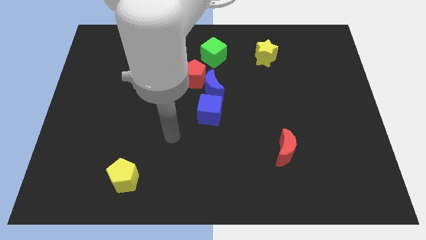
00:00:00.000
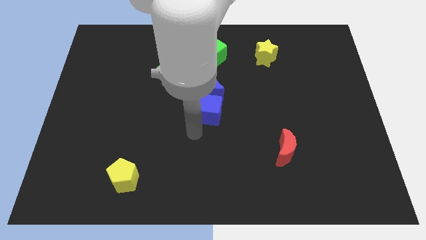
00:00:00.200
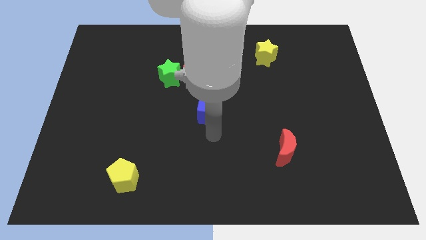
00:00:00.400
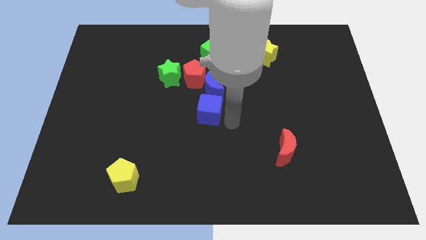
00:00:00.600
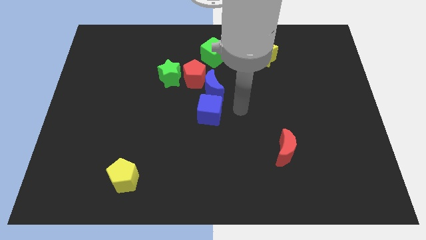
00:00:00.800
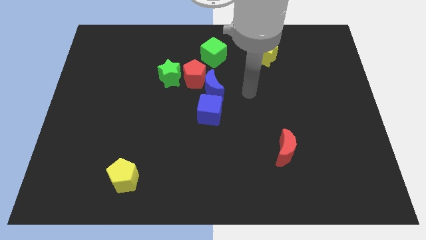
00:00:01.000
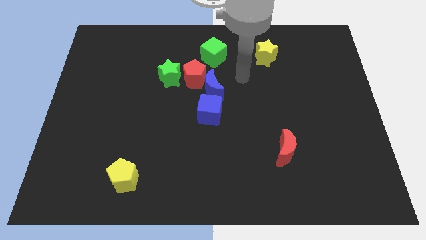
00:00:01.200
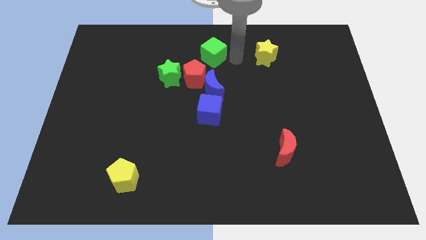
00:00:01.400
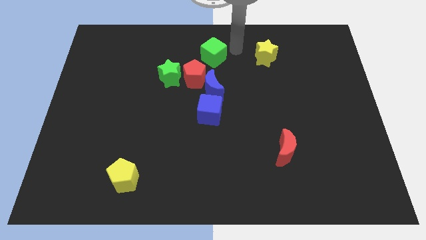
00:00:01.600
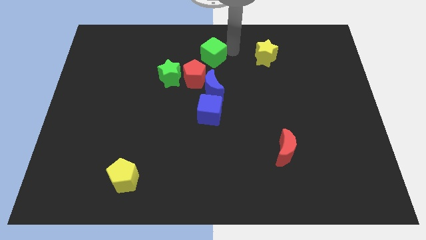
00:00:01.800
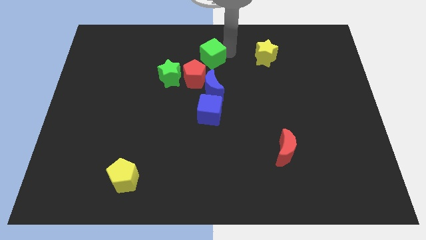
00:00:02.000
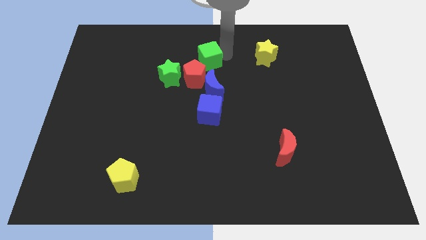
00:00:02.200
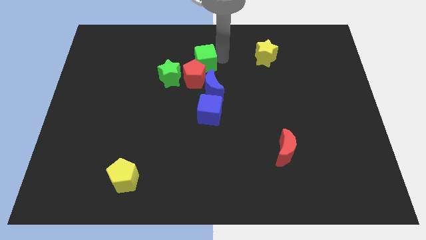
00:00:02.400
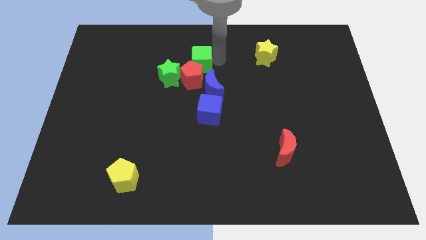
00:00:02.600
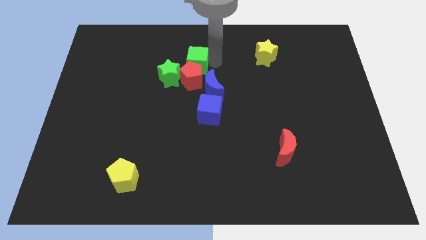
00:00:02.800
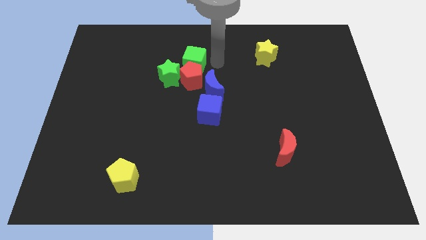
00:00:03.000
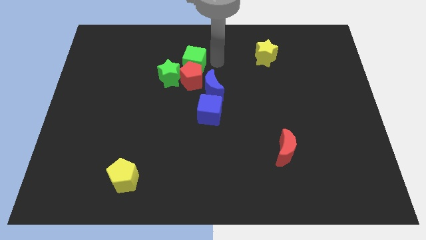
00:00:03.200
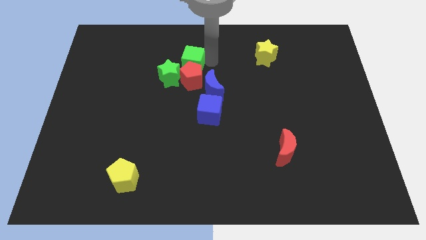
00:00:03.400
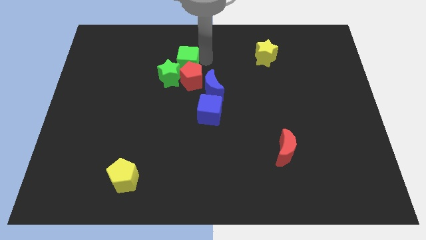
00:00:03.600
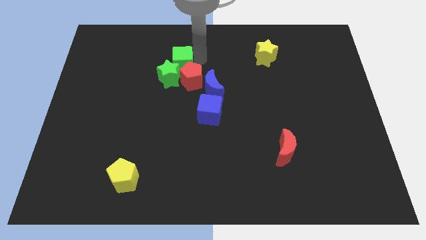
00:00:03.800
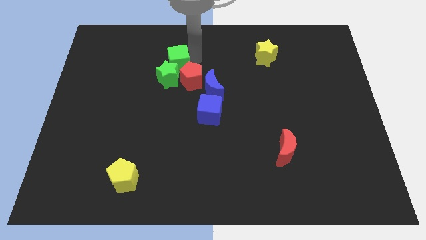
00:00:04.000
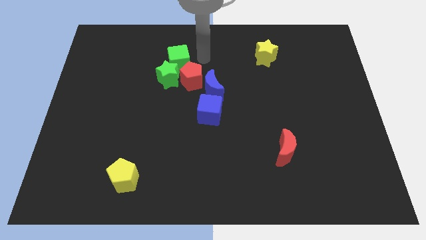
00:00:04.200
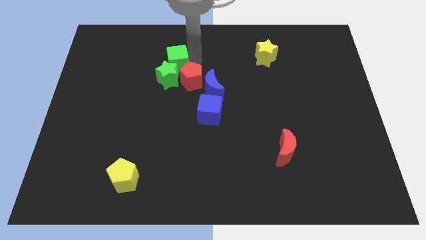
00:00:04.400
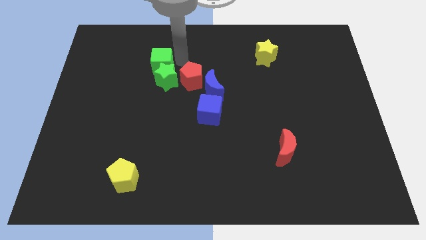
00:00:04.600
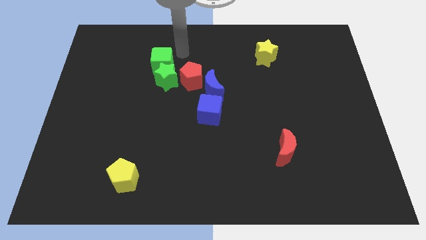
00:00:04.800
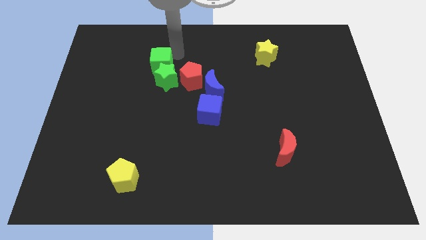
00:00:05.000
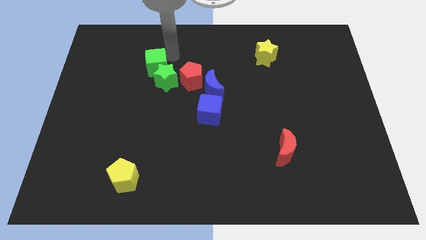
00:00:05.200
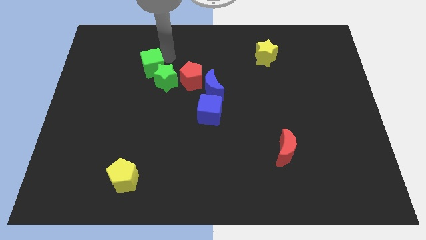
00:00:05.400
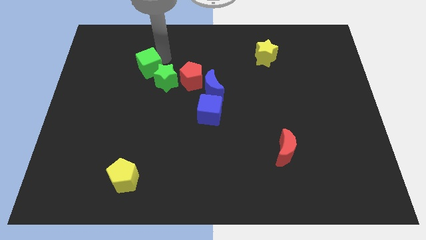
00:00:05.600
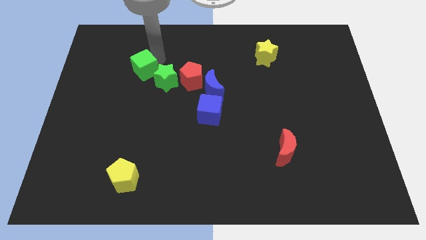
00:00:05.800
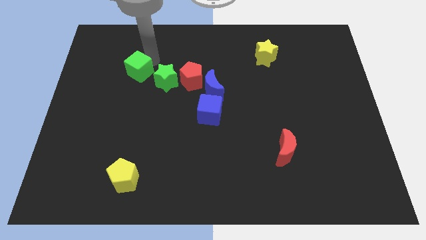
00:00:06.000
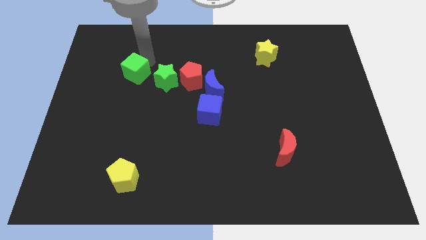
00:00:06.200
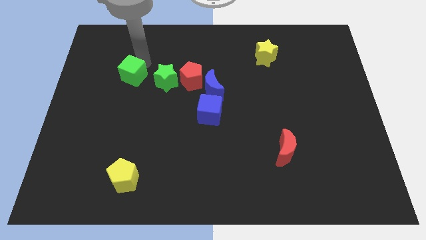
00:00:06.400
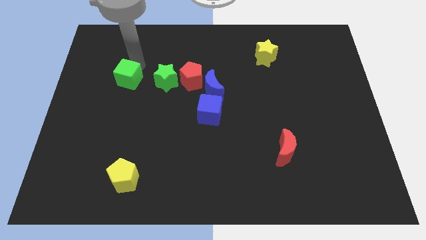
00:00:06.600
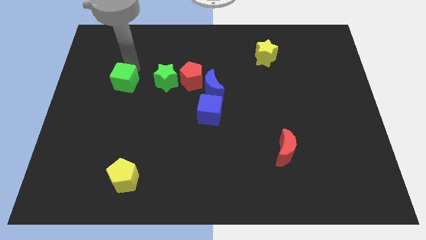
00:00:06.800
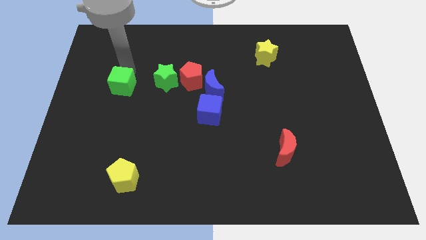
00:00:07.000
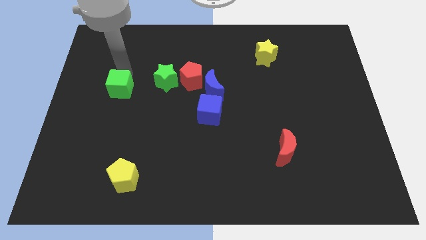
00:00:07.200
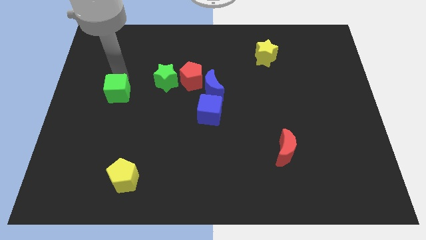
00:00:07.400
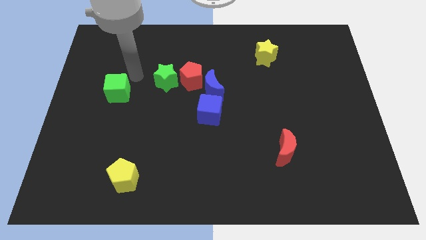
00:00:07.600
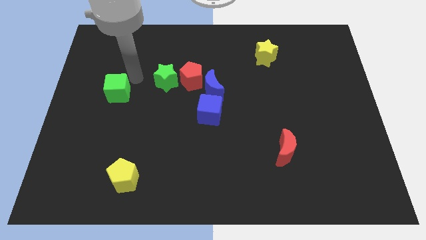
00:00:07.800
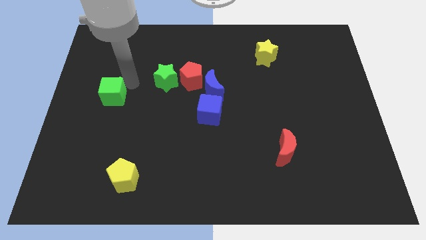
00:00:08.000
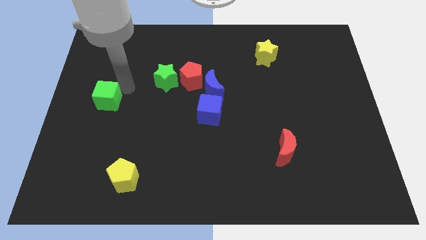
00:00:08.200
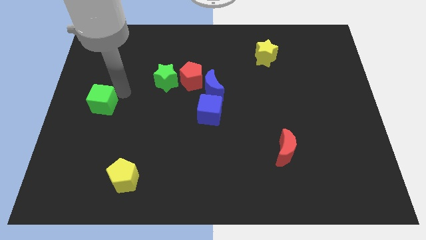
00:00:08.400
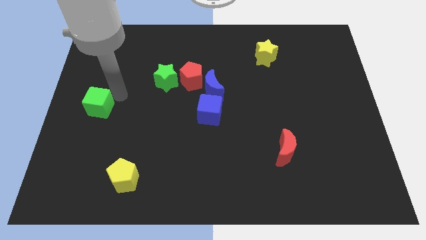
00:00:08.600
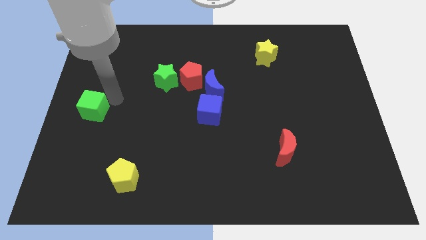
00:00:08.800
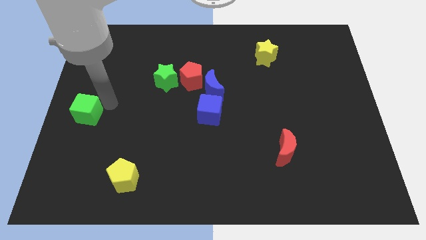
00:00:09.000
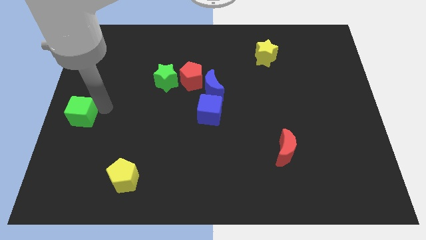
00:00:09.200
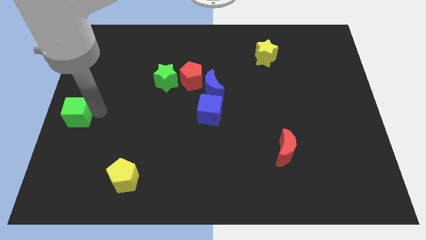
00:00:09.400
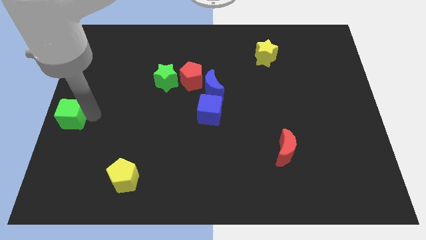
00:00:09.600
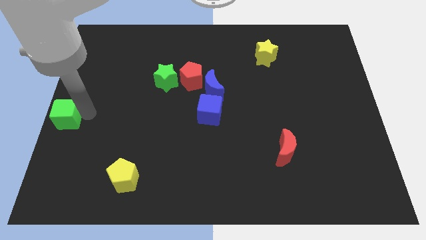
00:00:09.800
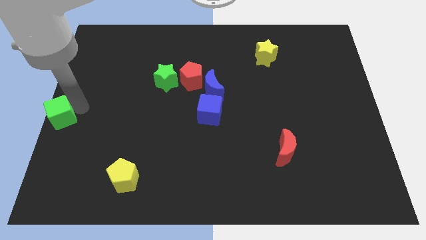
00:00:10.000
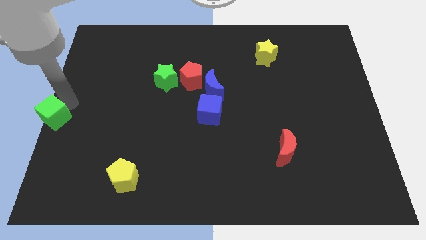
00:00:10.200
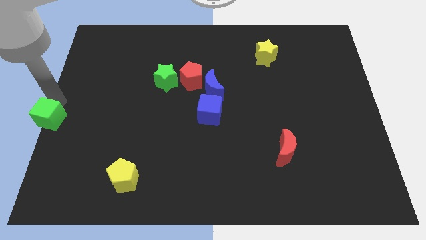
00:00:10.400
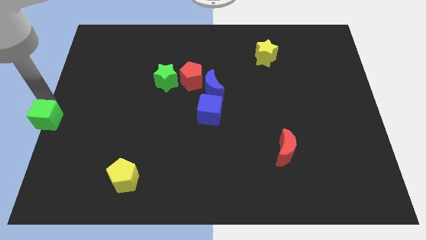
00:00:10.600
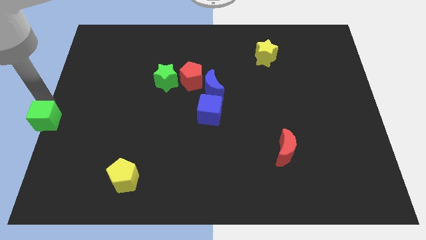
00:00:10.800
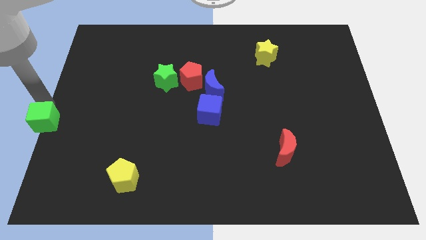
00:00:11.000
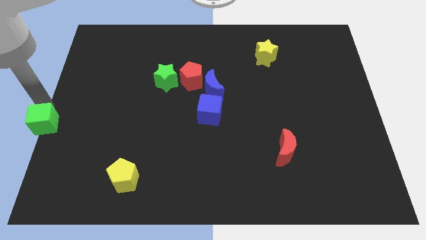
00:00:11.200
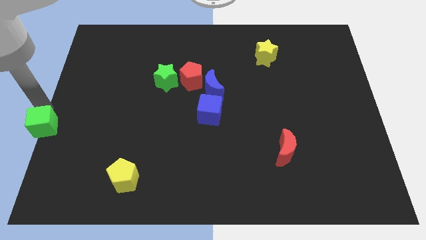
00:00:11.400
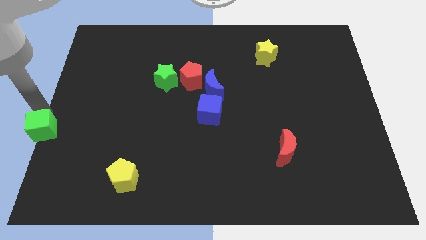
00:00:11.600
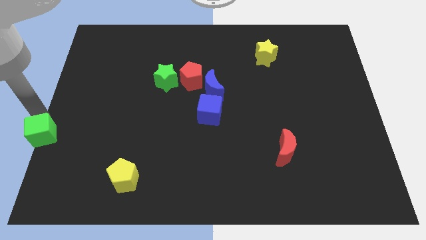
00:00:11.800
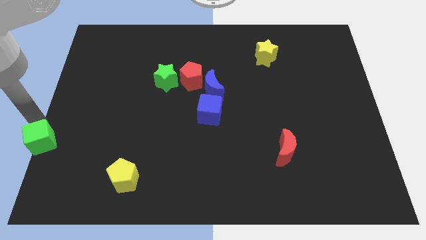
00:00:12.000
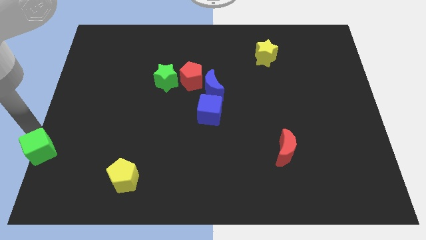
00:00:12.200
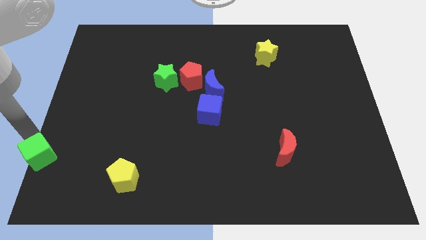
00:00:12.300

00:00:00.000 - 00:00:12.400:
move the green cube to the bottom left
